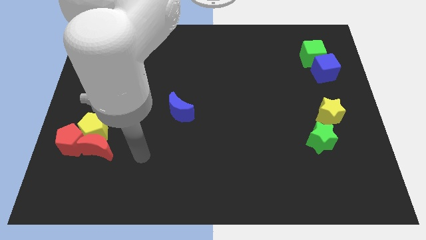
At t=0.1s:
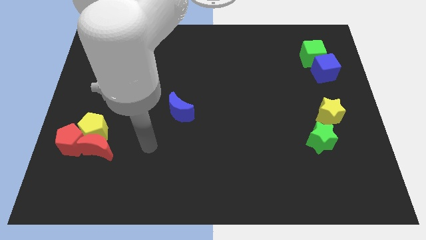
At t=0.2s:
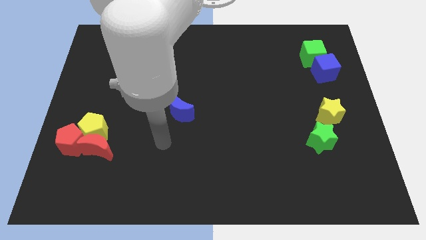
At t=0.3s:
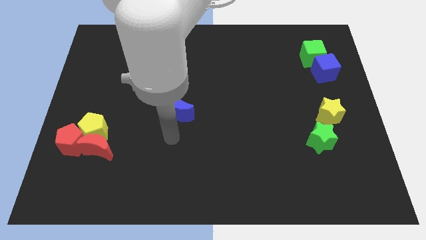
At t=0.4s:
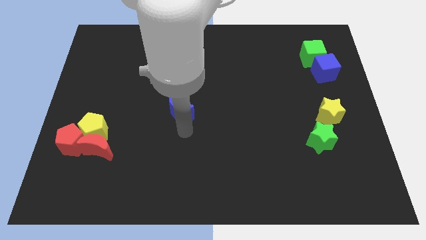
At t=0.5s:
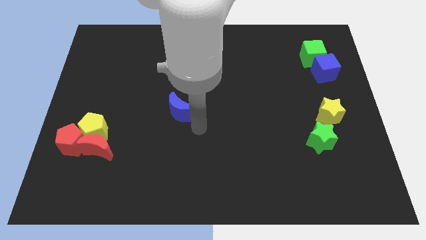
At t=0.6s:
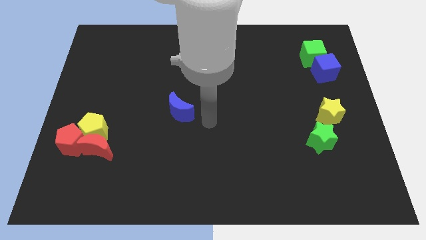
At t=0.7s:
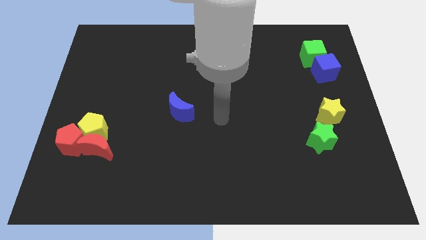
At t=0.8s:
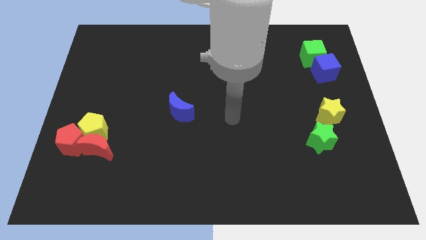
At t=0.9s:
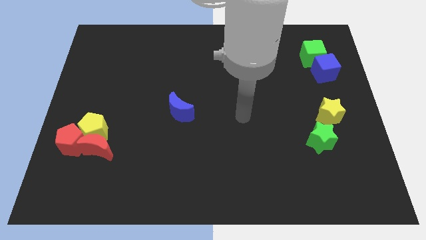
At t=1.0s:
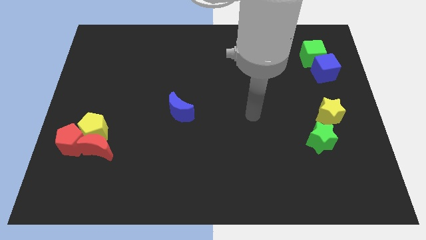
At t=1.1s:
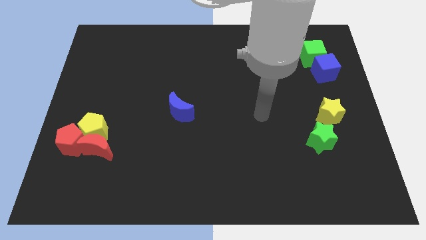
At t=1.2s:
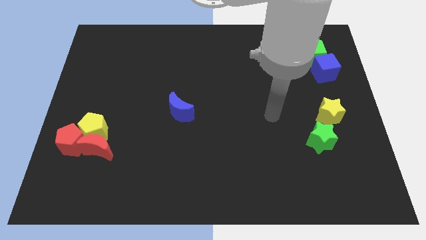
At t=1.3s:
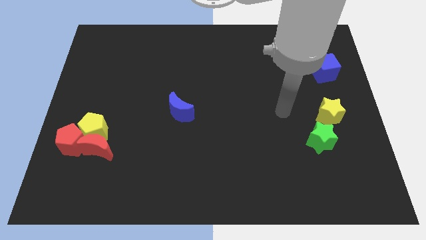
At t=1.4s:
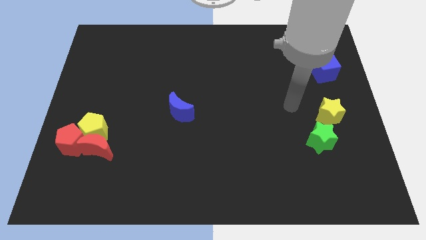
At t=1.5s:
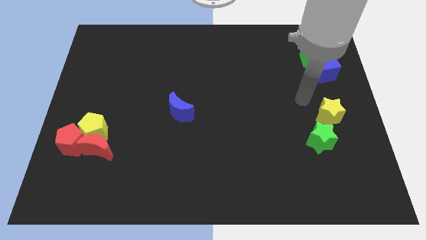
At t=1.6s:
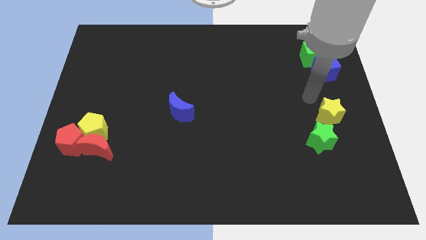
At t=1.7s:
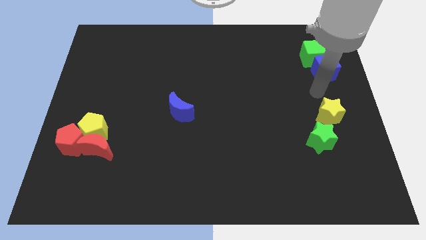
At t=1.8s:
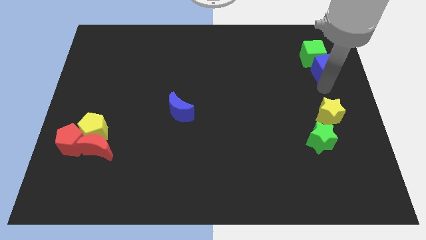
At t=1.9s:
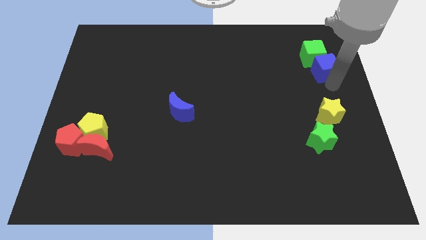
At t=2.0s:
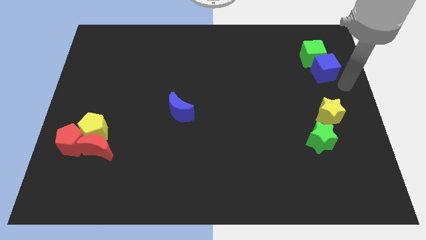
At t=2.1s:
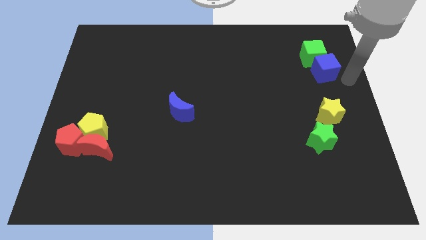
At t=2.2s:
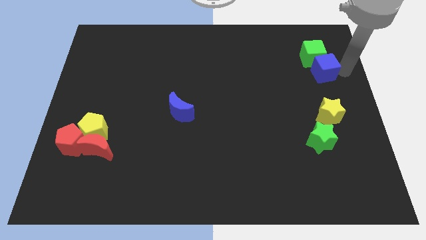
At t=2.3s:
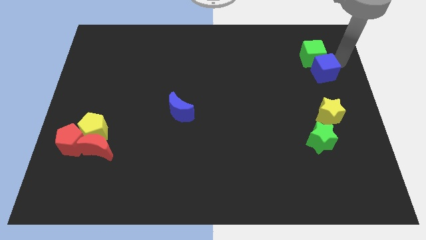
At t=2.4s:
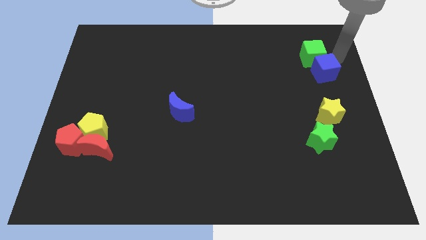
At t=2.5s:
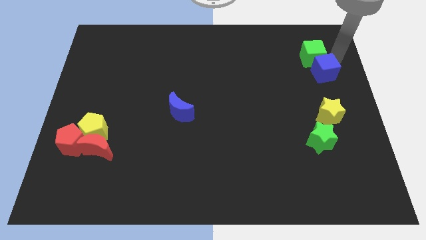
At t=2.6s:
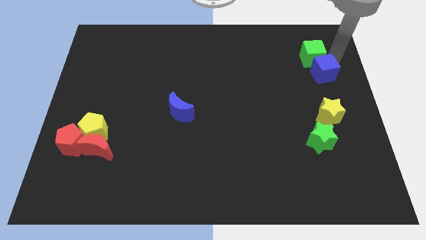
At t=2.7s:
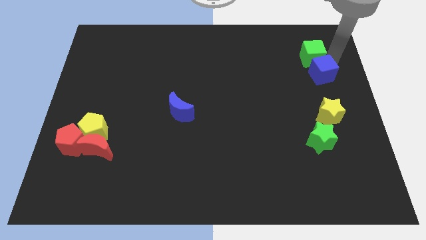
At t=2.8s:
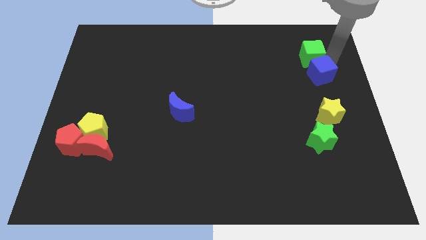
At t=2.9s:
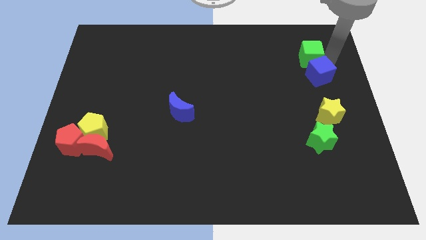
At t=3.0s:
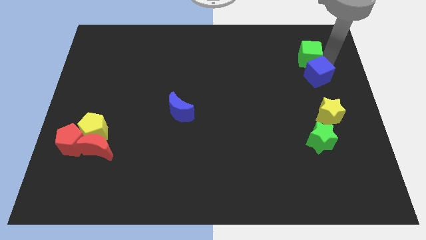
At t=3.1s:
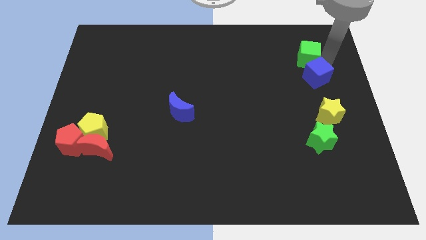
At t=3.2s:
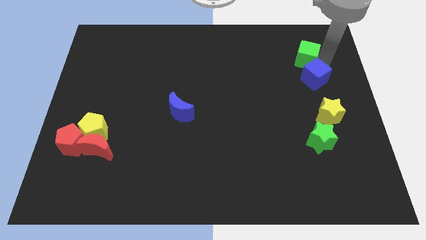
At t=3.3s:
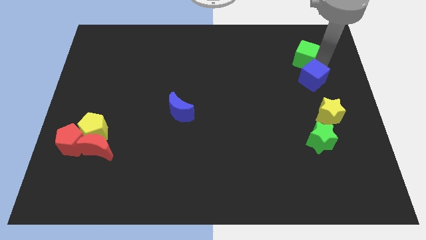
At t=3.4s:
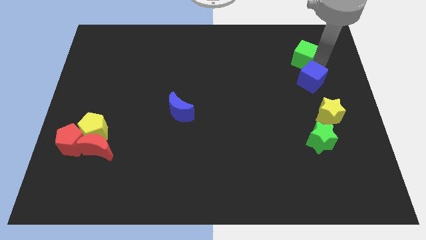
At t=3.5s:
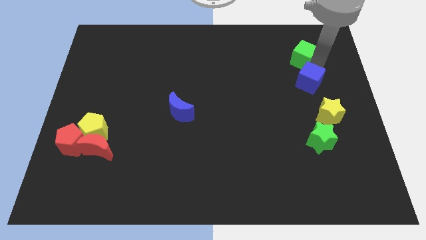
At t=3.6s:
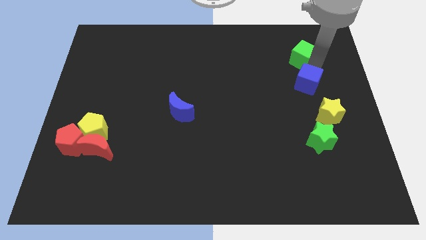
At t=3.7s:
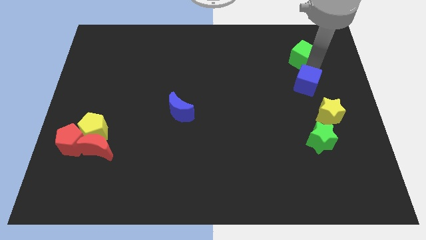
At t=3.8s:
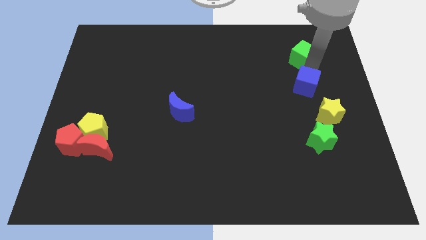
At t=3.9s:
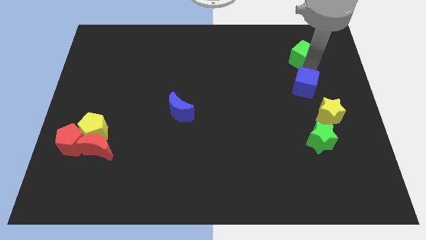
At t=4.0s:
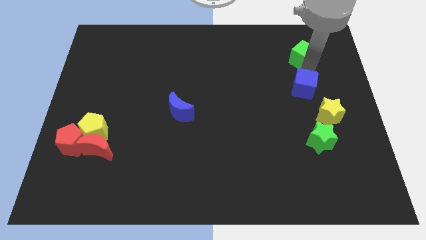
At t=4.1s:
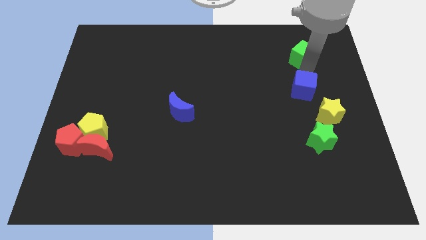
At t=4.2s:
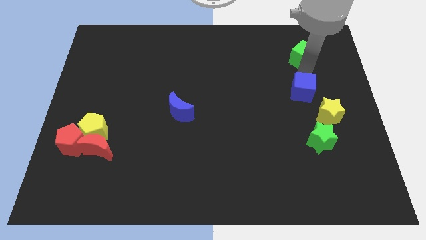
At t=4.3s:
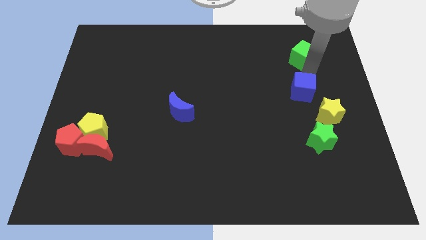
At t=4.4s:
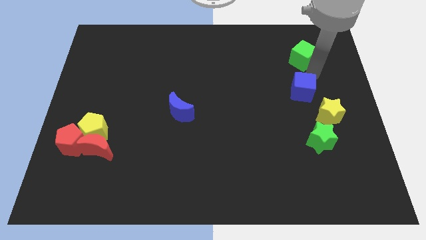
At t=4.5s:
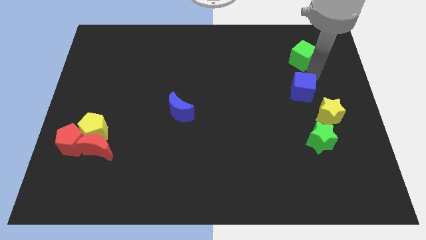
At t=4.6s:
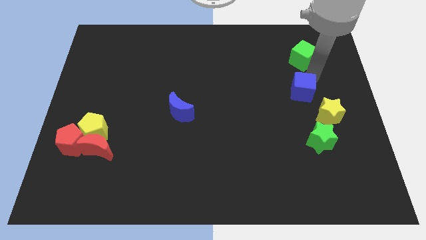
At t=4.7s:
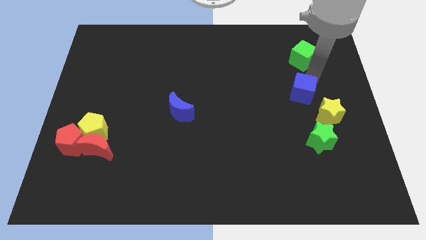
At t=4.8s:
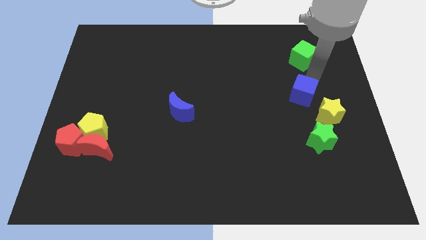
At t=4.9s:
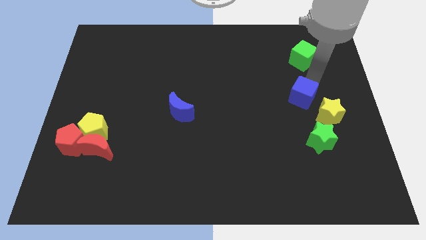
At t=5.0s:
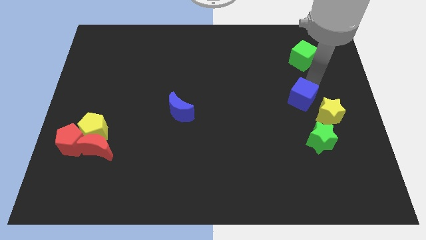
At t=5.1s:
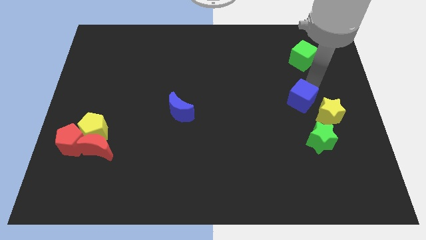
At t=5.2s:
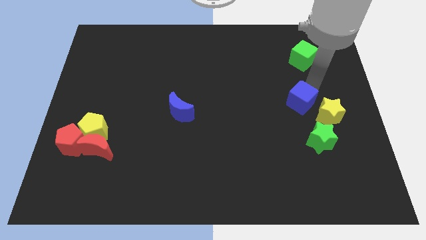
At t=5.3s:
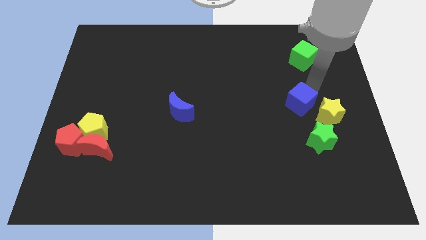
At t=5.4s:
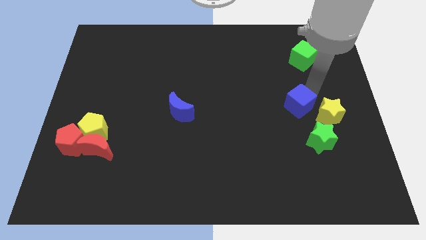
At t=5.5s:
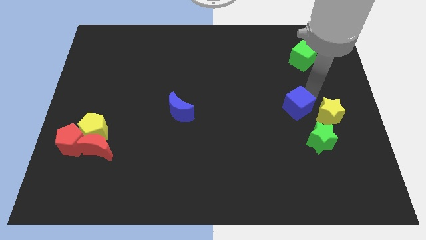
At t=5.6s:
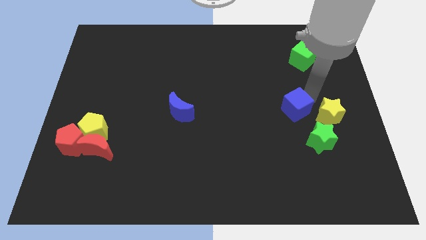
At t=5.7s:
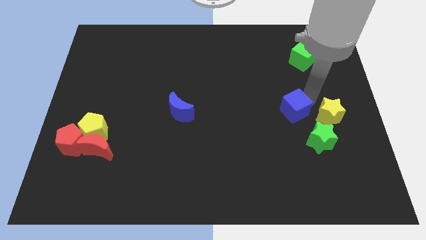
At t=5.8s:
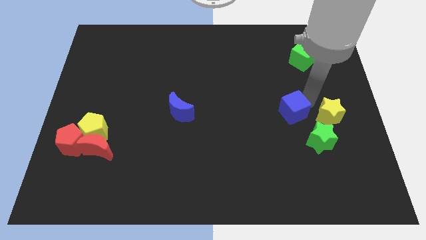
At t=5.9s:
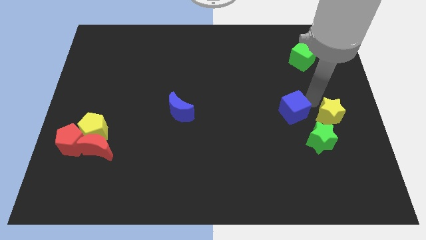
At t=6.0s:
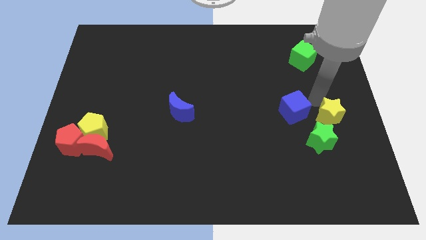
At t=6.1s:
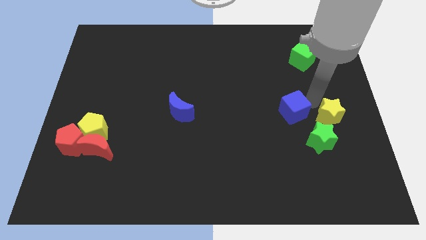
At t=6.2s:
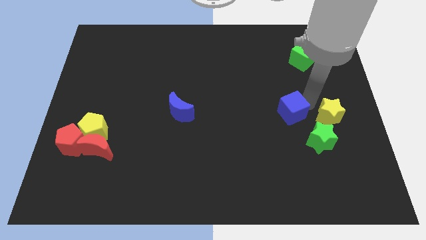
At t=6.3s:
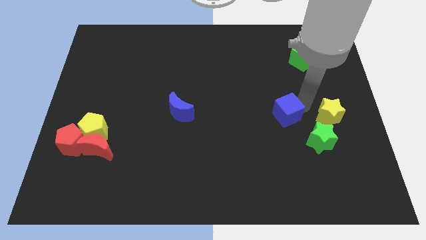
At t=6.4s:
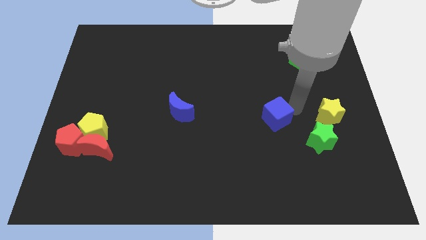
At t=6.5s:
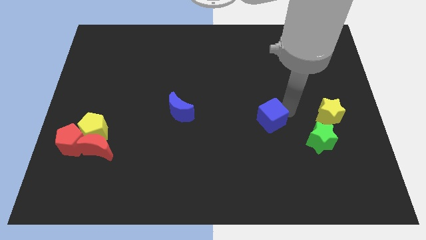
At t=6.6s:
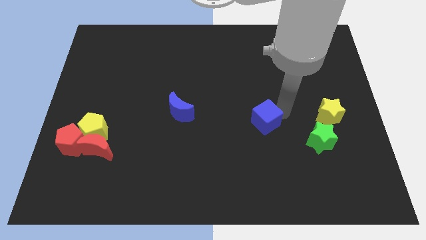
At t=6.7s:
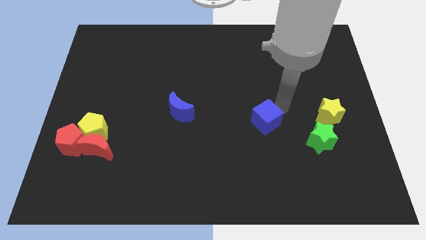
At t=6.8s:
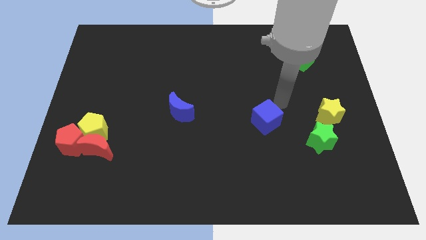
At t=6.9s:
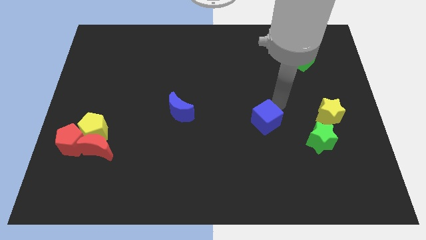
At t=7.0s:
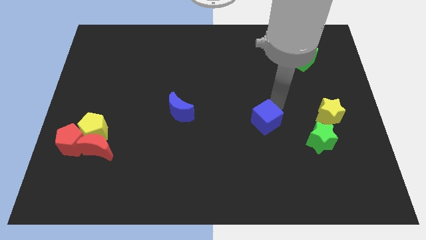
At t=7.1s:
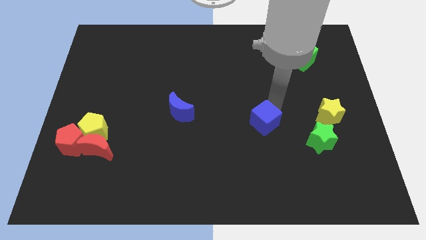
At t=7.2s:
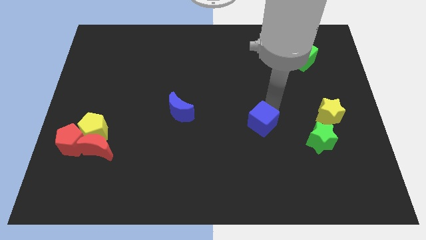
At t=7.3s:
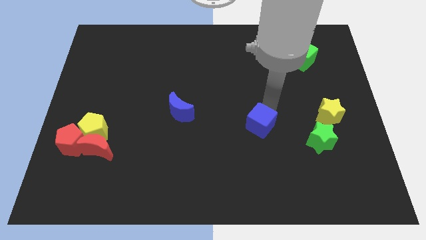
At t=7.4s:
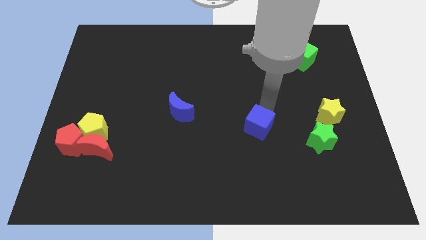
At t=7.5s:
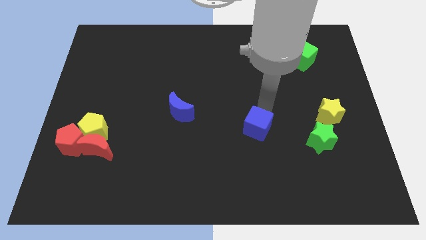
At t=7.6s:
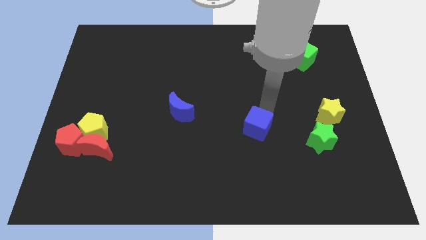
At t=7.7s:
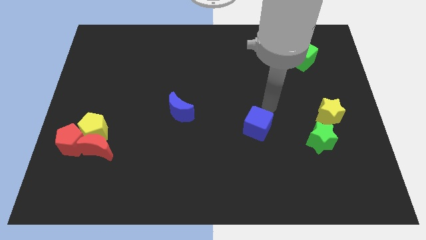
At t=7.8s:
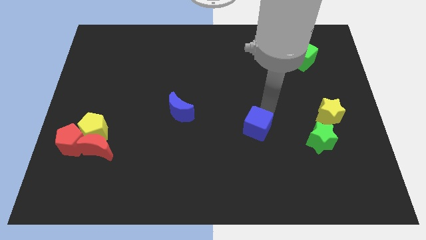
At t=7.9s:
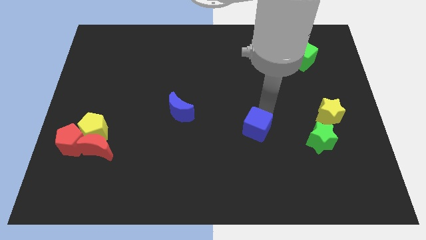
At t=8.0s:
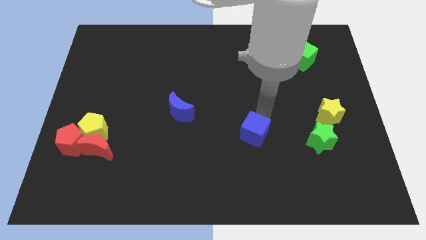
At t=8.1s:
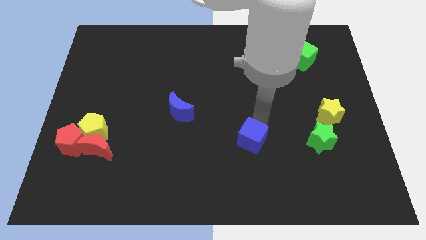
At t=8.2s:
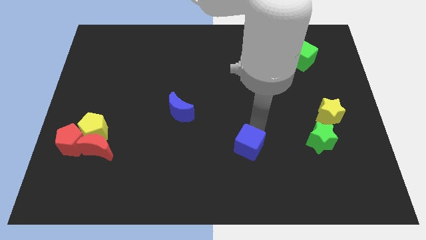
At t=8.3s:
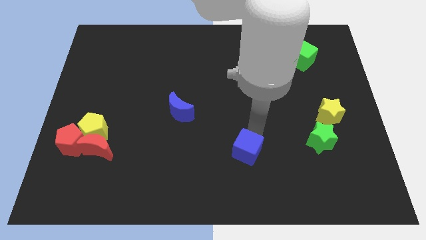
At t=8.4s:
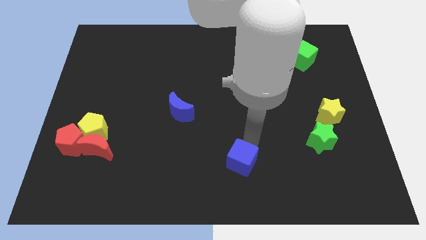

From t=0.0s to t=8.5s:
put the blue cube to the bottom

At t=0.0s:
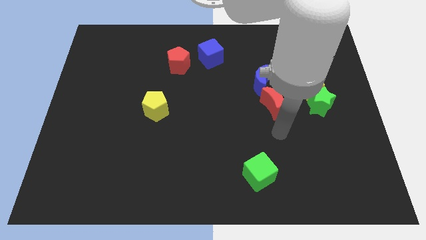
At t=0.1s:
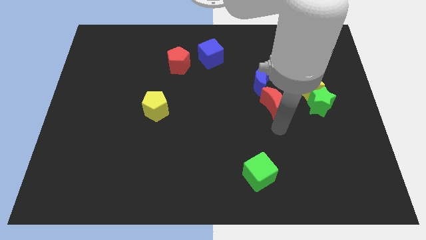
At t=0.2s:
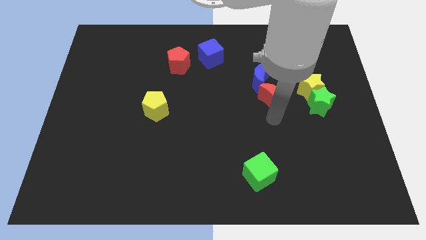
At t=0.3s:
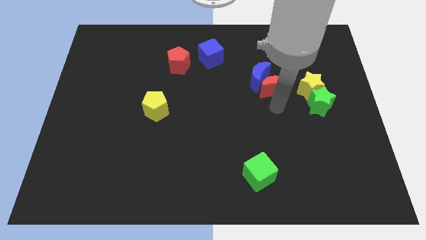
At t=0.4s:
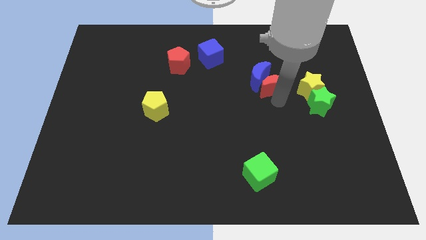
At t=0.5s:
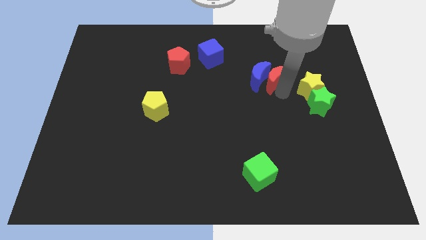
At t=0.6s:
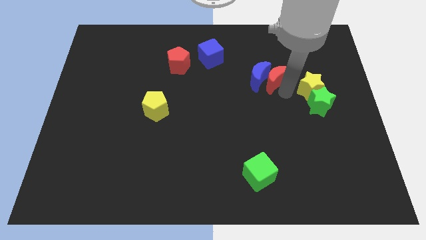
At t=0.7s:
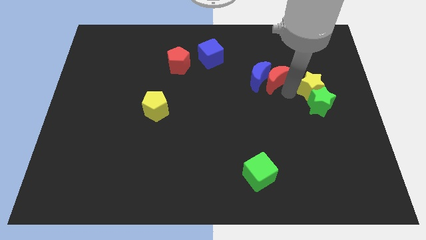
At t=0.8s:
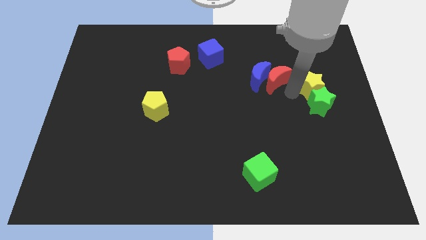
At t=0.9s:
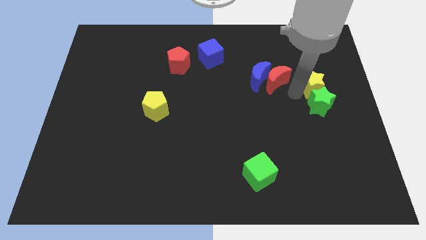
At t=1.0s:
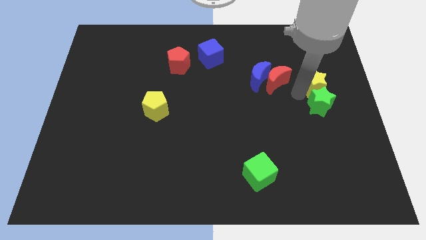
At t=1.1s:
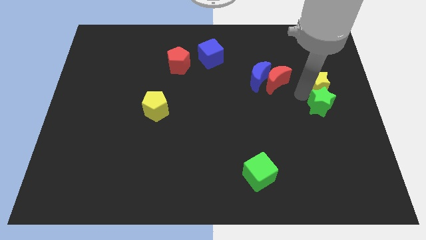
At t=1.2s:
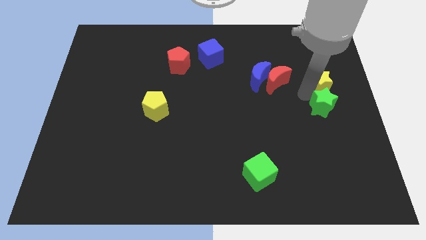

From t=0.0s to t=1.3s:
put the yellow star to the right side of the board
